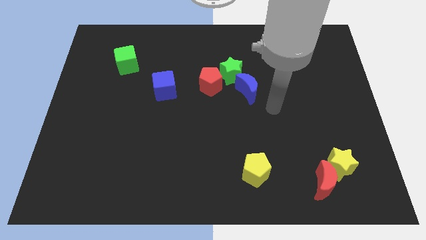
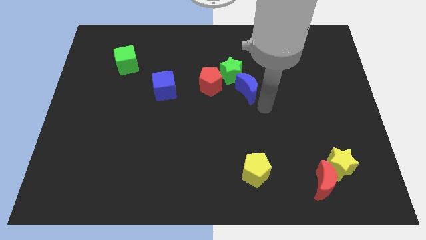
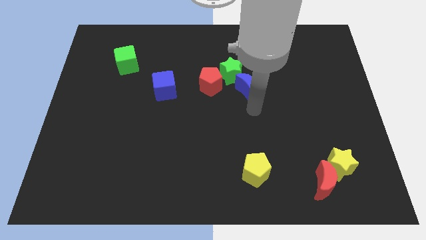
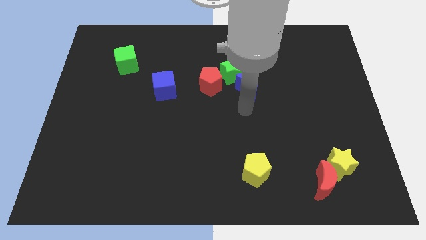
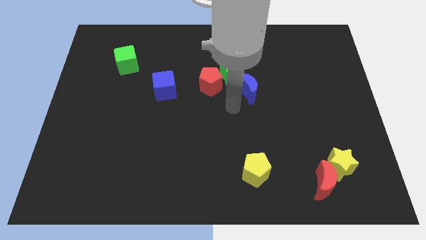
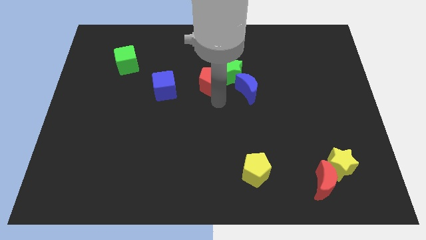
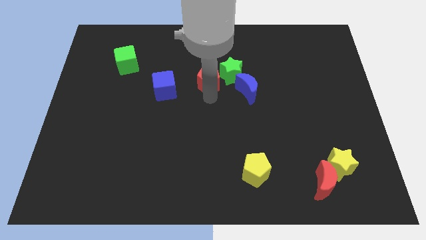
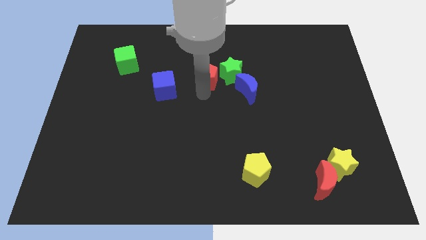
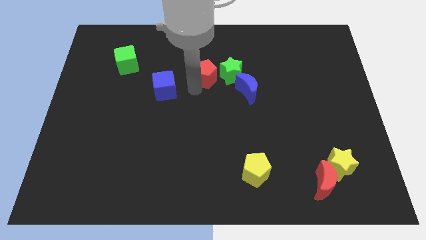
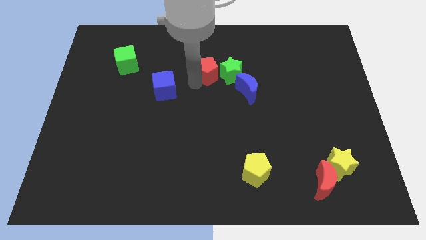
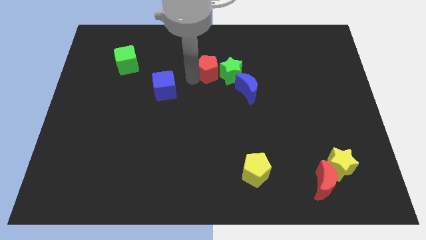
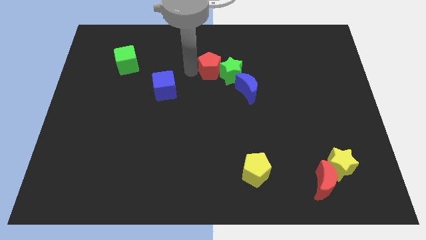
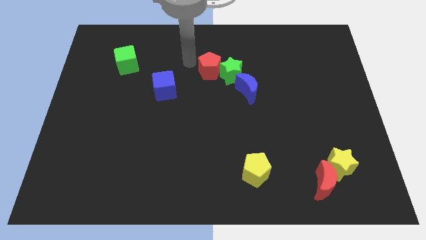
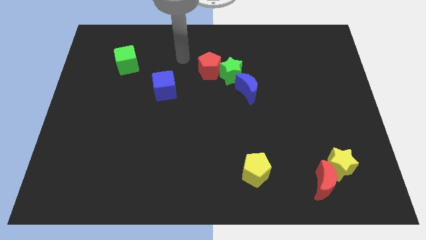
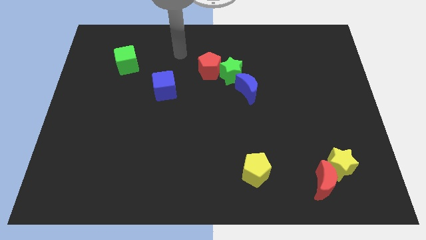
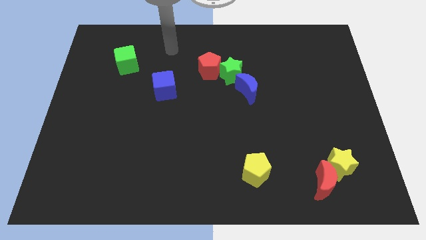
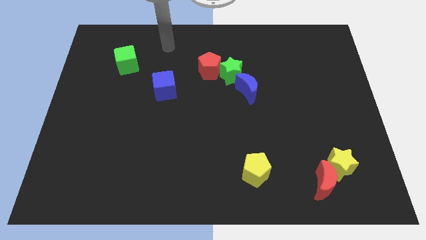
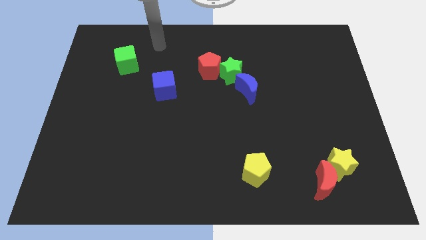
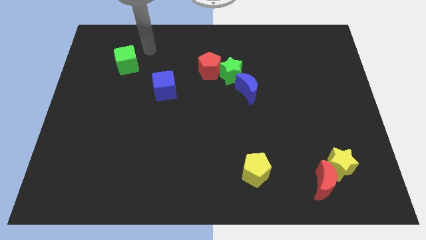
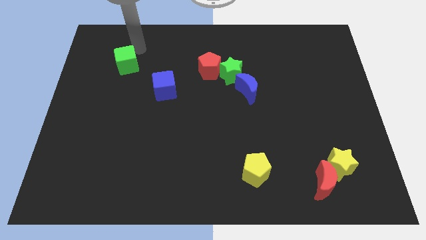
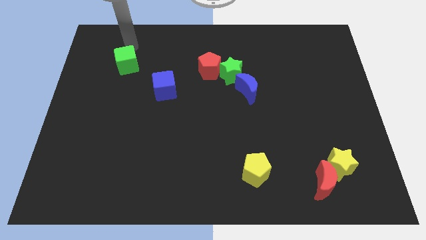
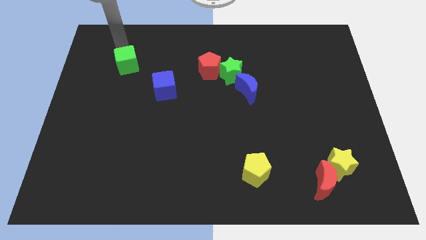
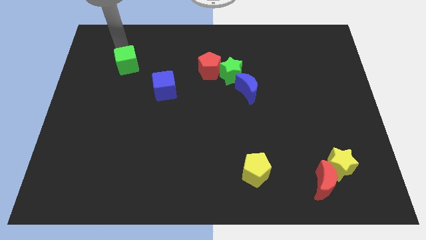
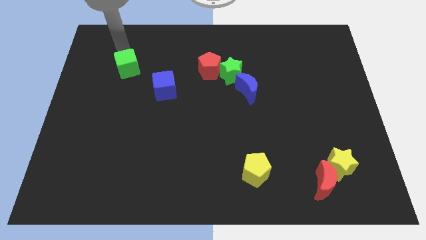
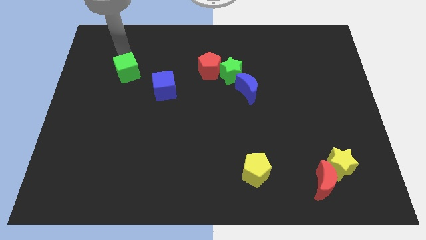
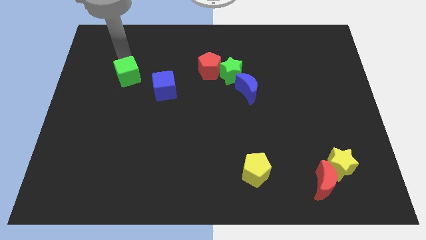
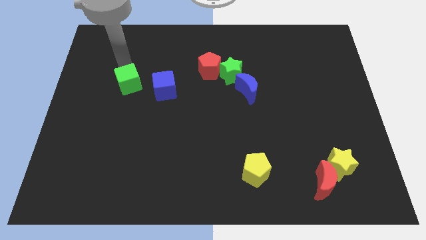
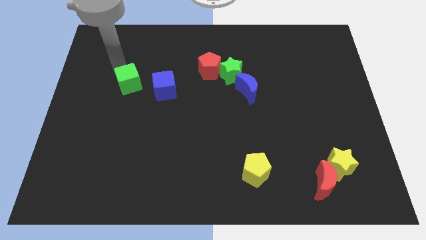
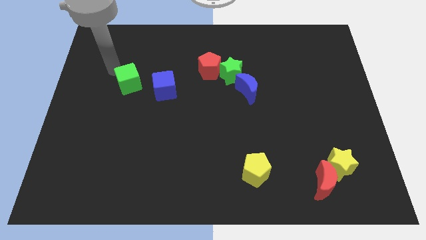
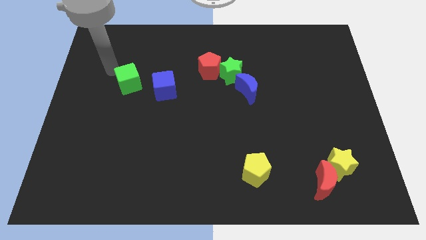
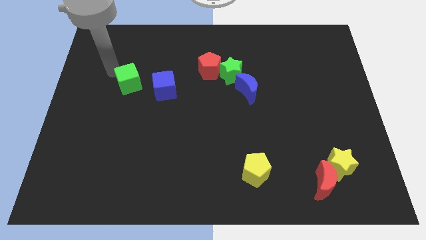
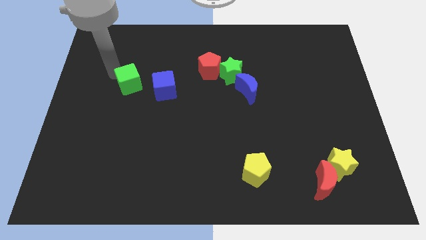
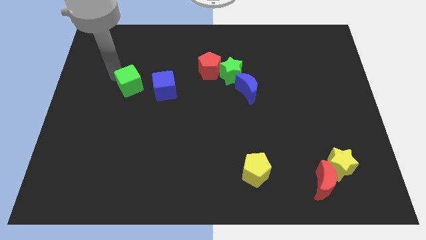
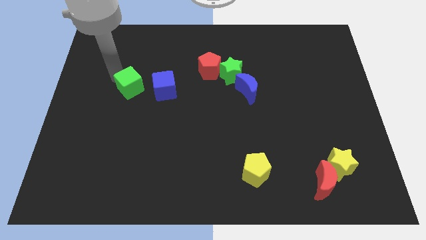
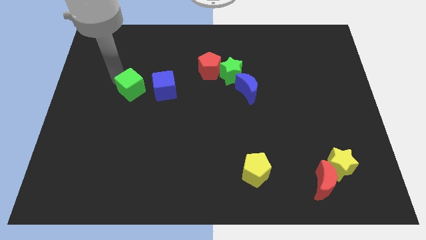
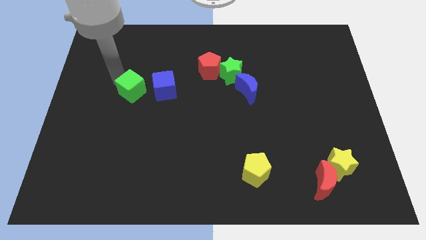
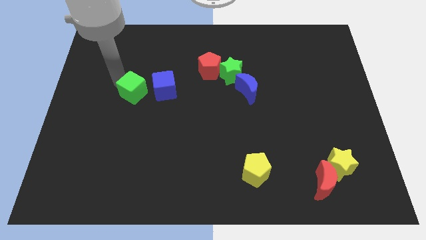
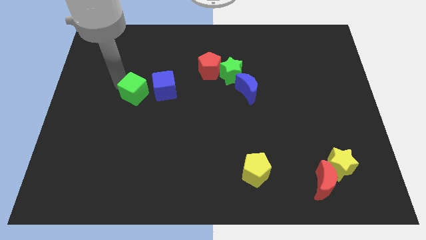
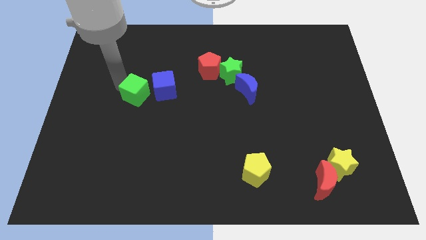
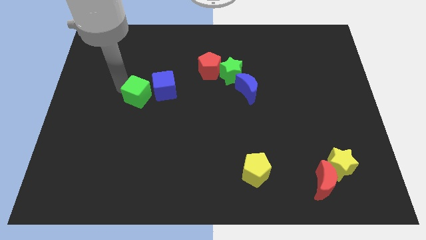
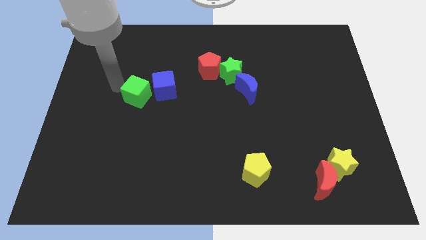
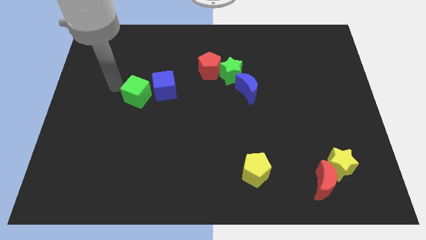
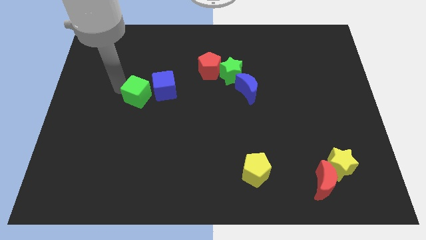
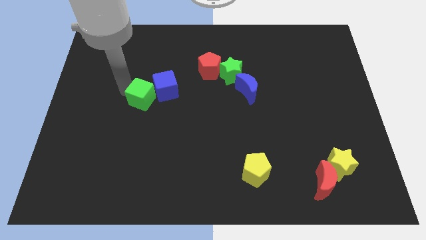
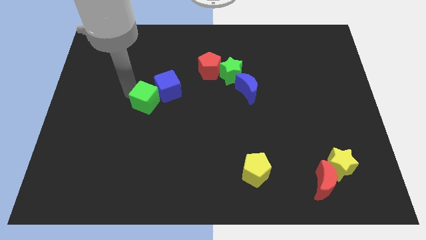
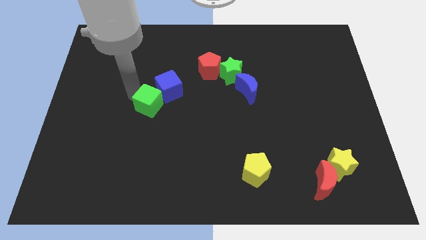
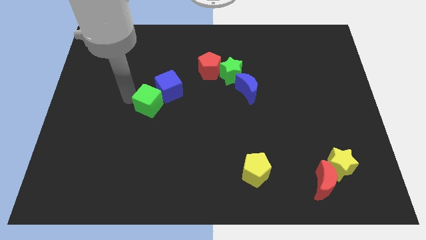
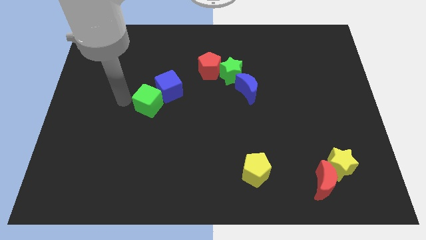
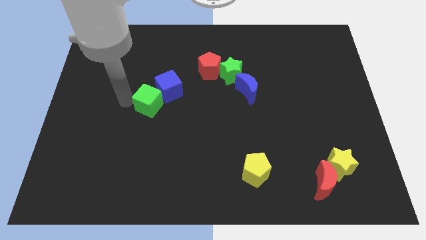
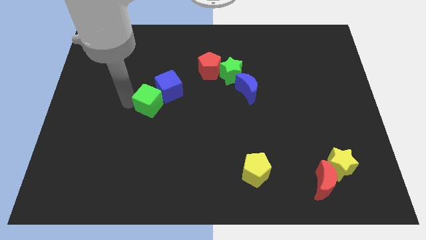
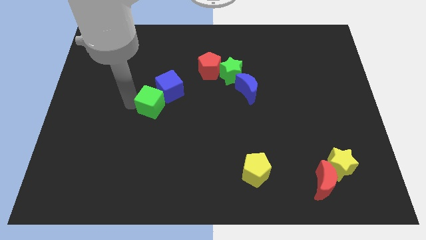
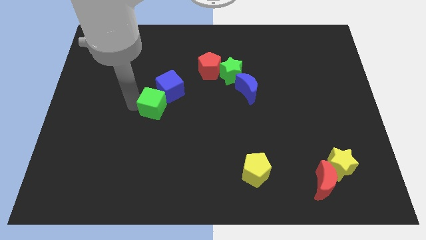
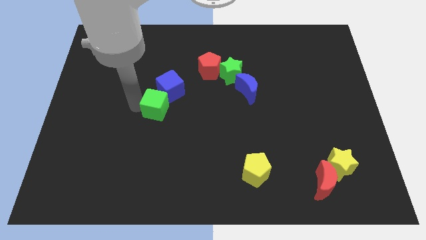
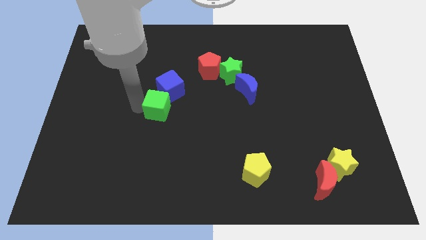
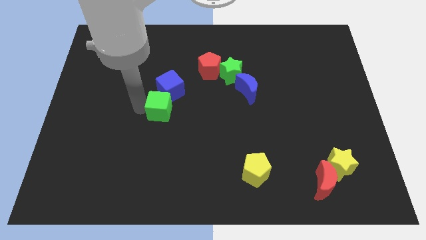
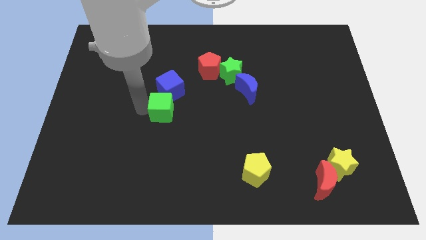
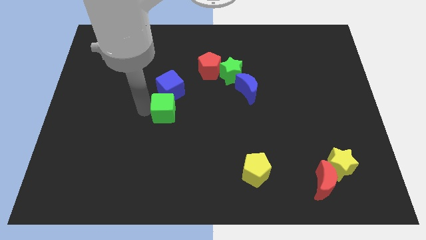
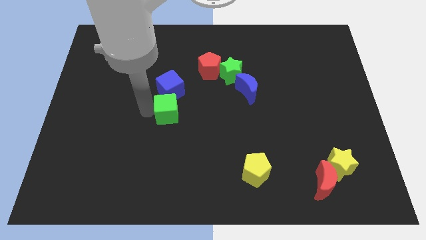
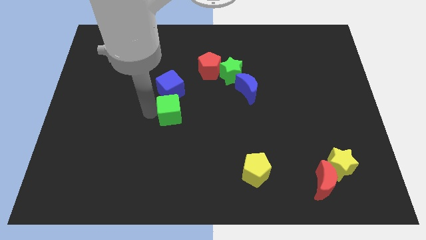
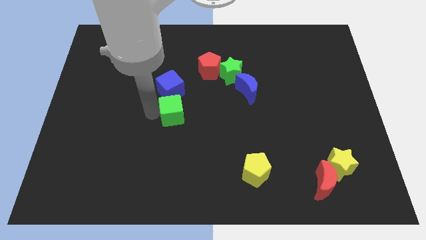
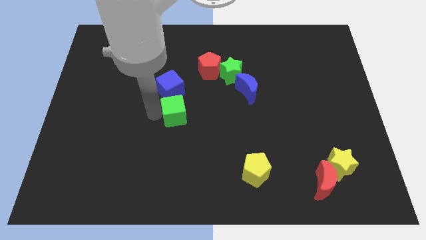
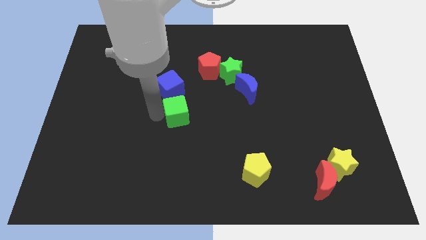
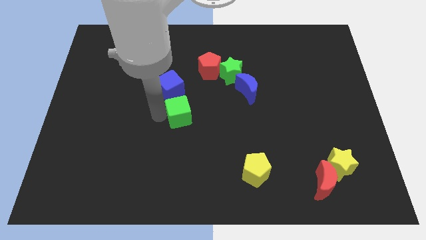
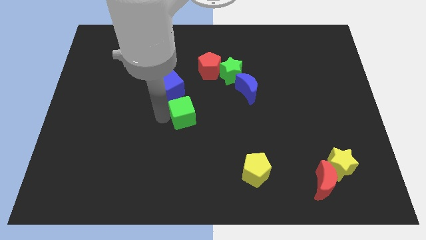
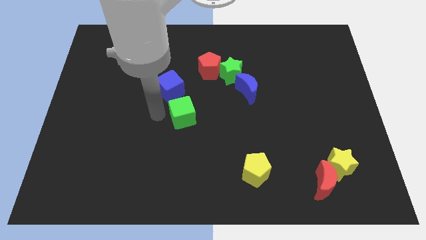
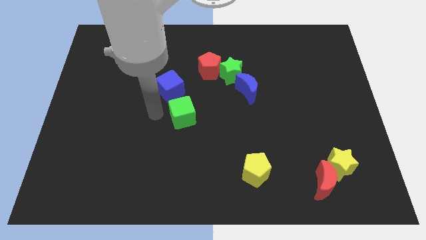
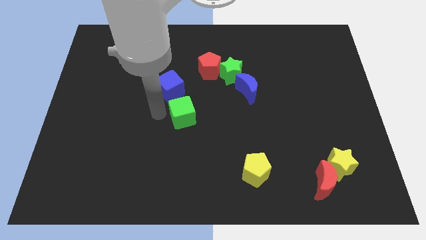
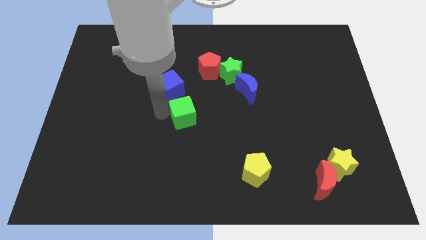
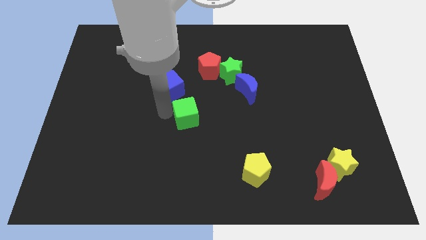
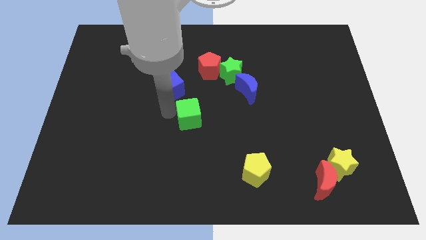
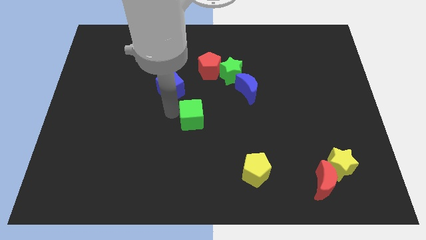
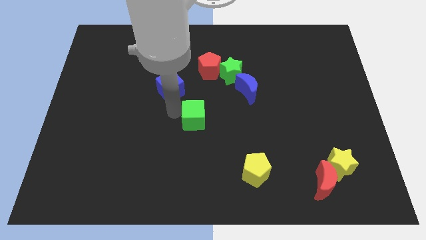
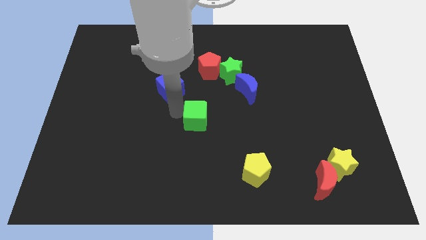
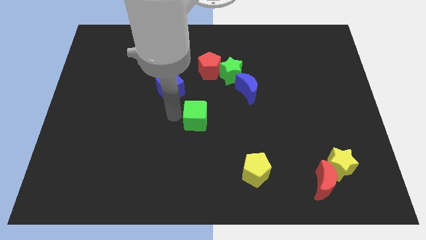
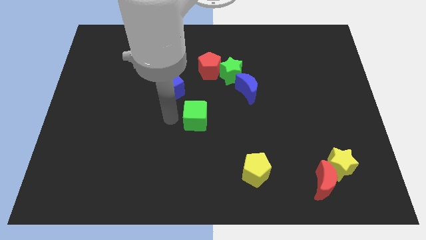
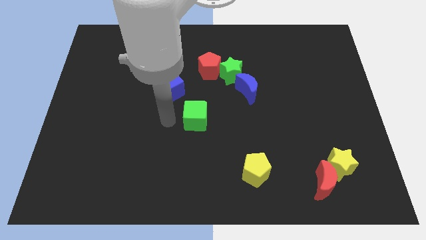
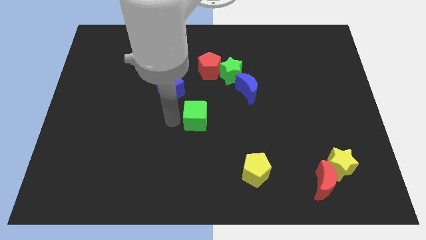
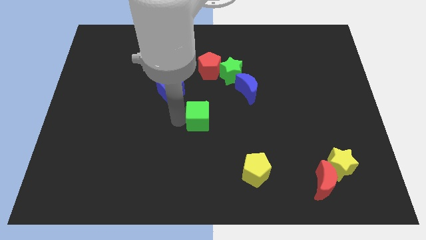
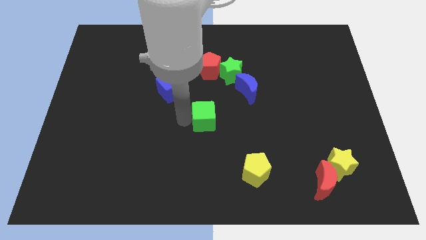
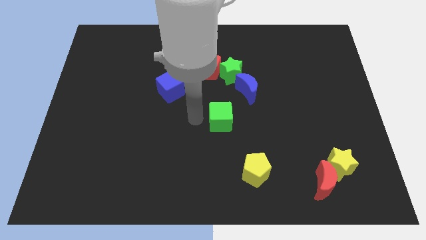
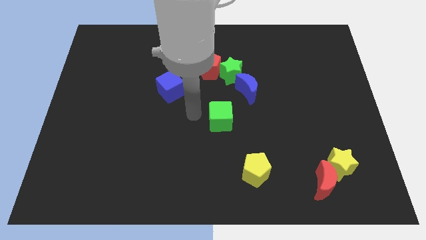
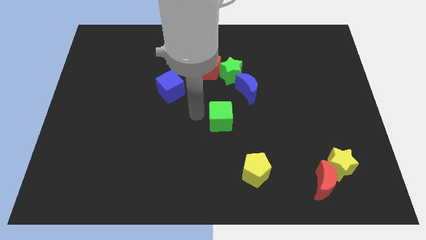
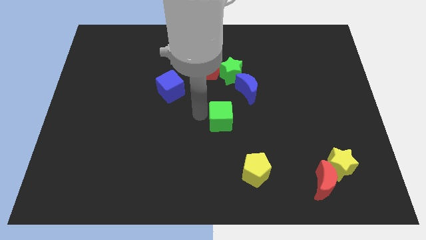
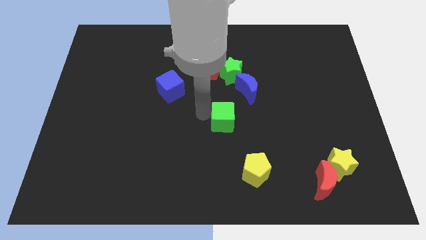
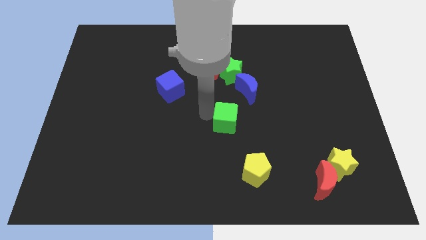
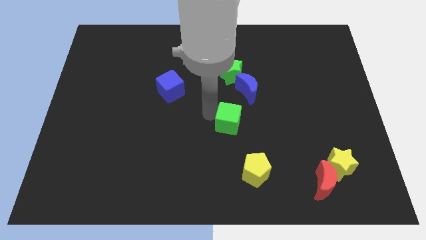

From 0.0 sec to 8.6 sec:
push the green cube below the blue moon
